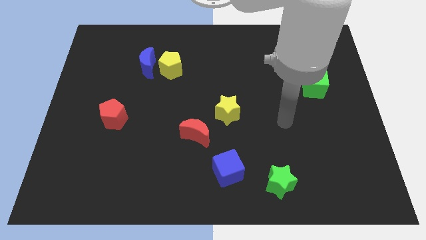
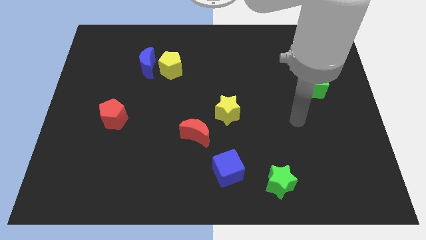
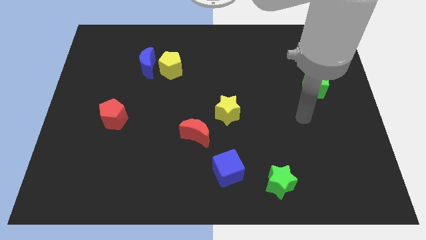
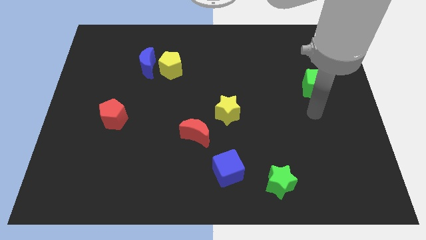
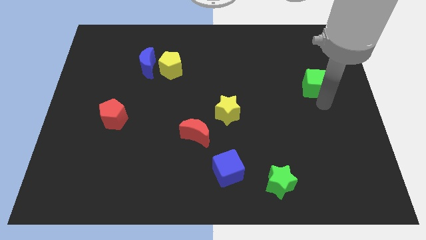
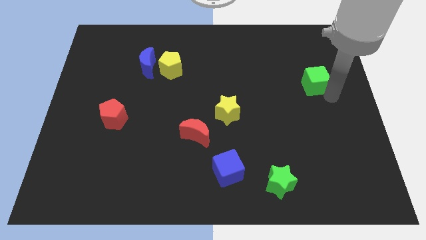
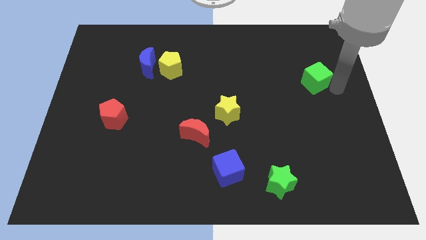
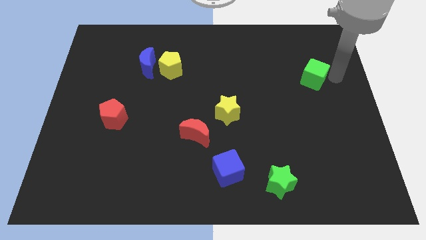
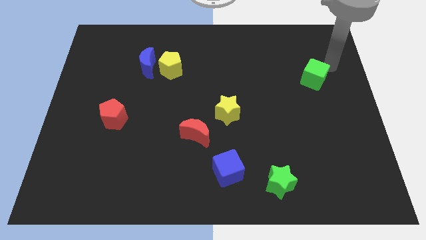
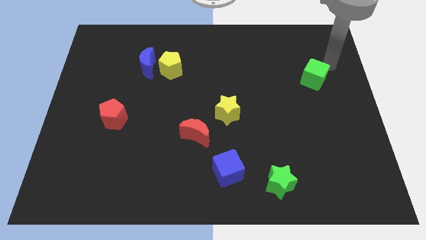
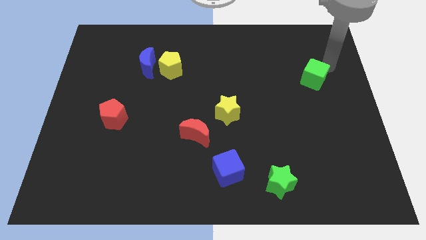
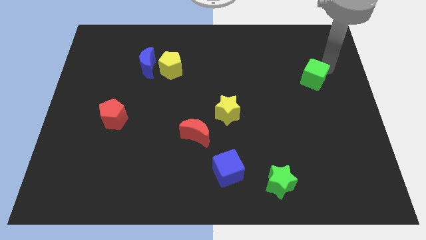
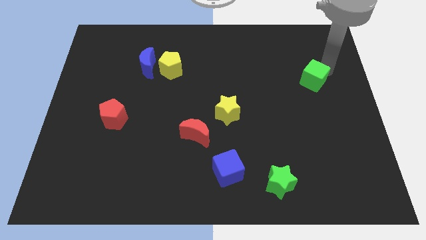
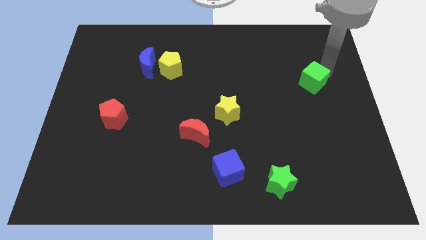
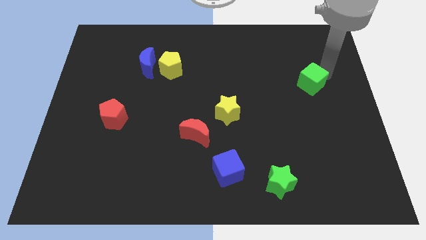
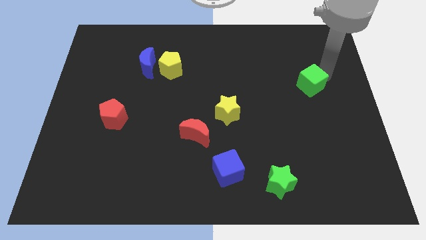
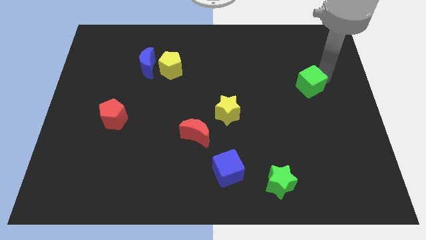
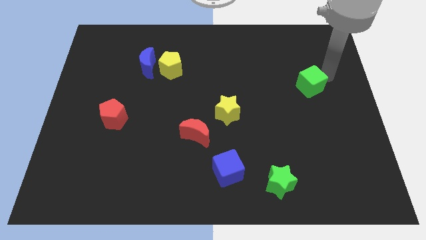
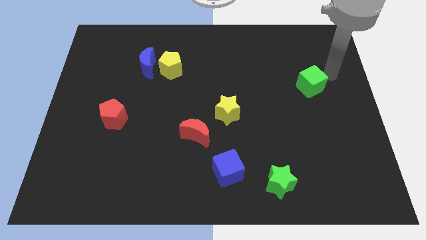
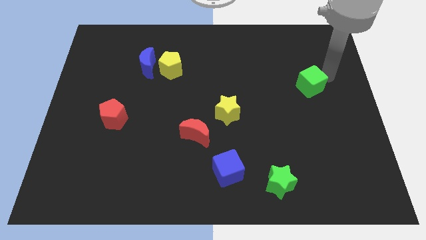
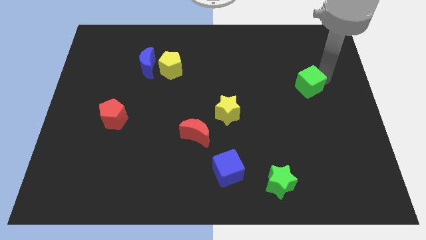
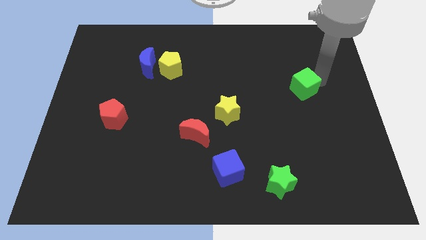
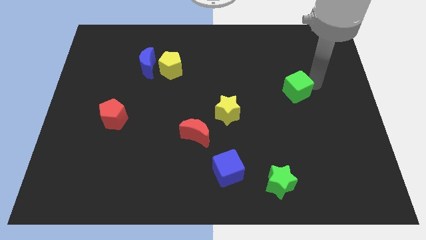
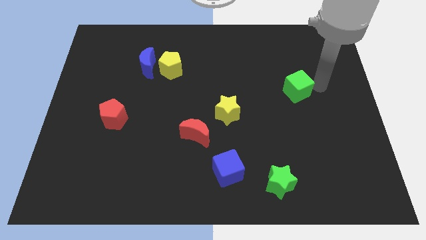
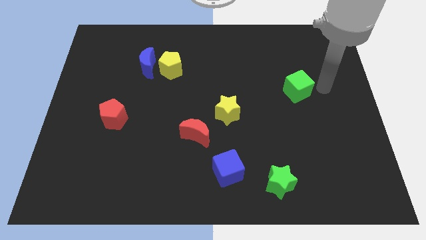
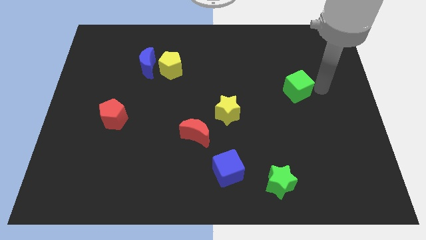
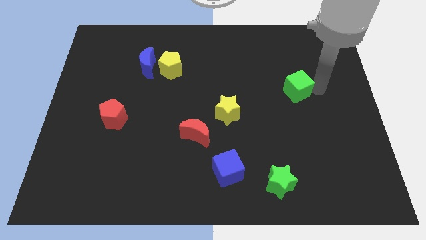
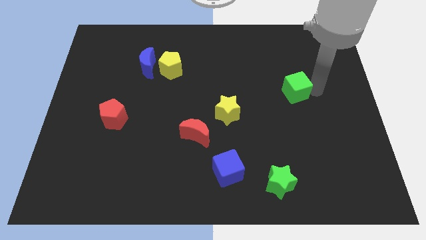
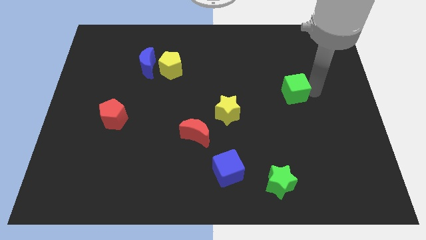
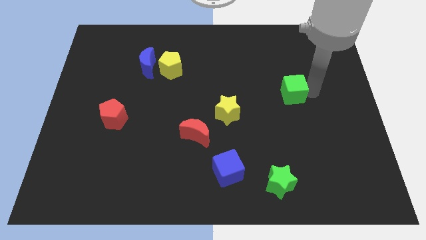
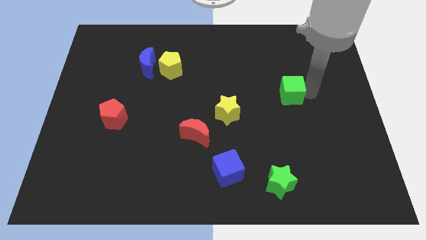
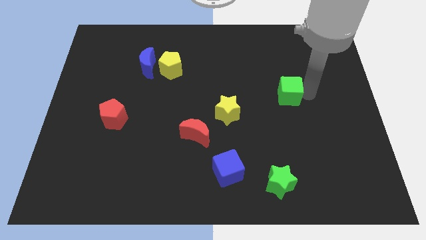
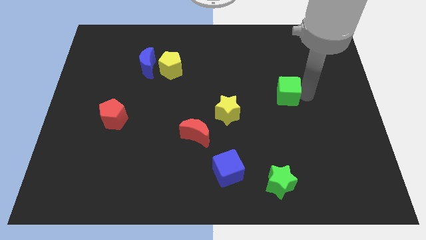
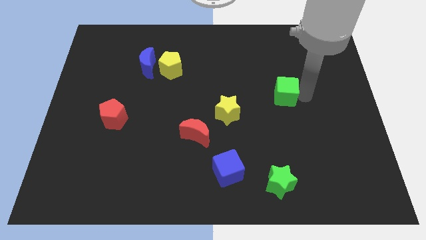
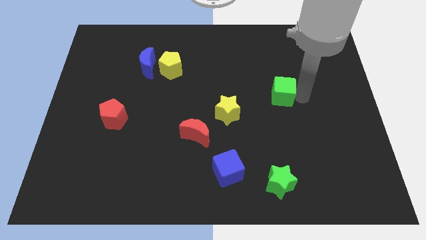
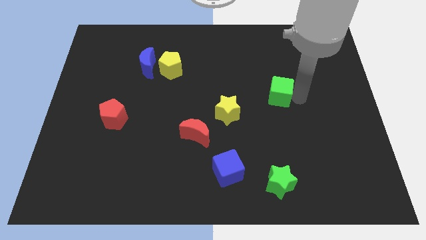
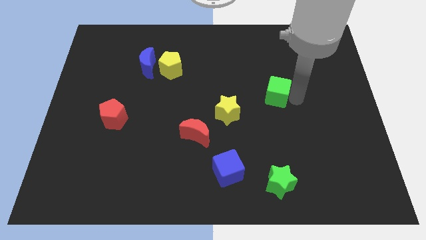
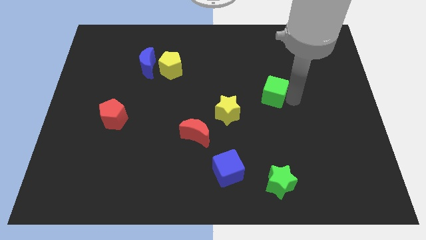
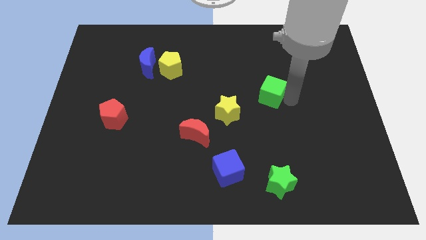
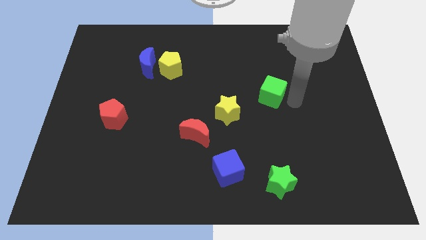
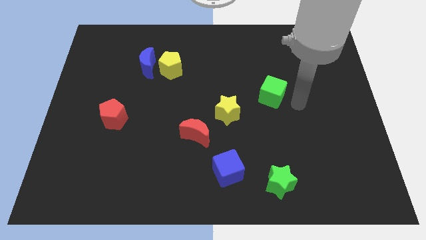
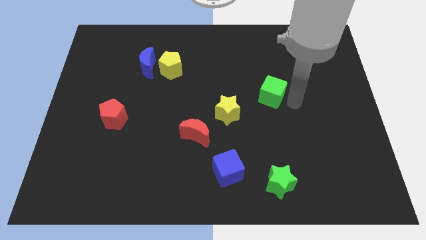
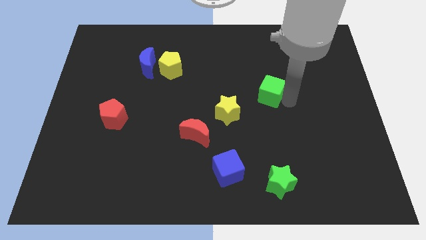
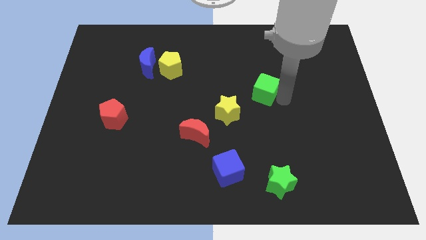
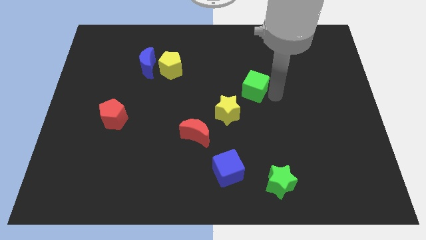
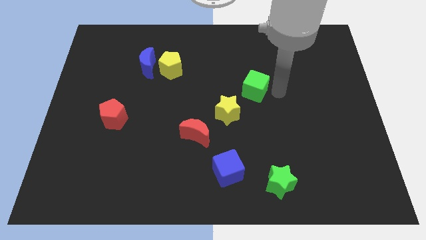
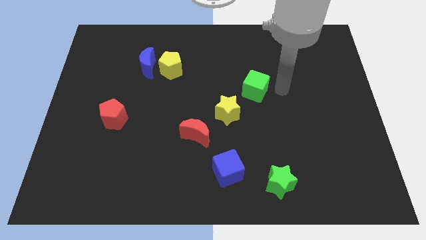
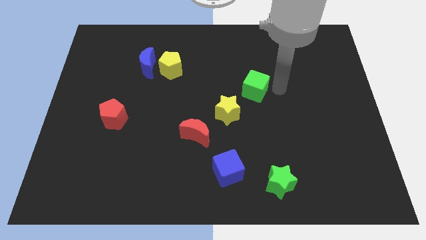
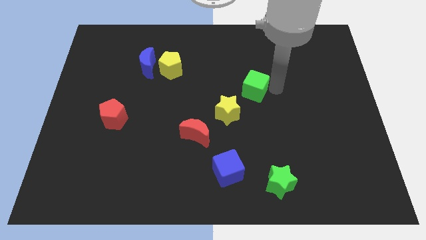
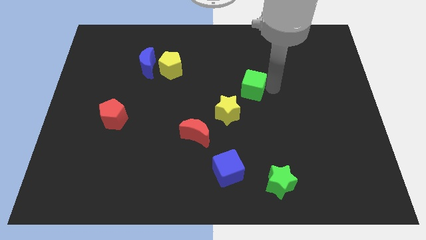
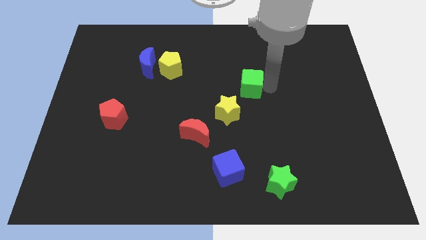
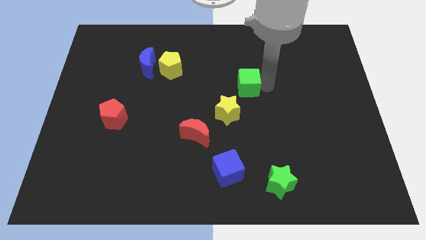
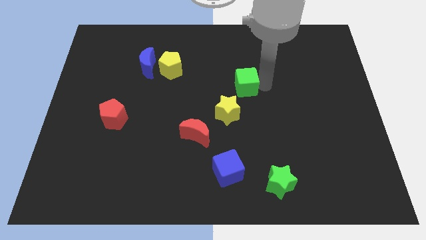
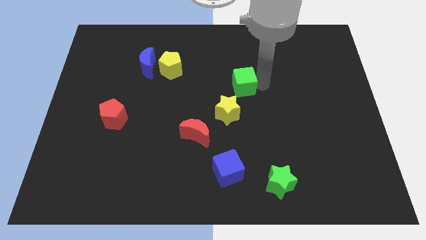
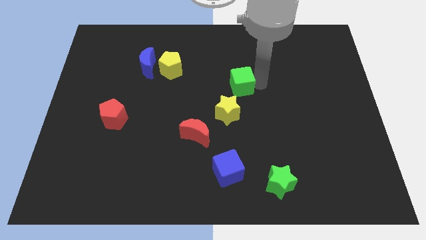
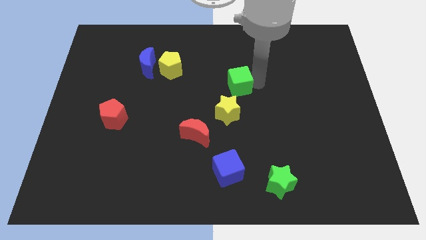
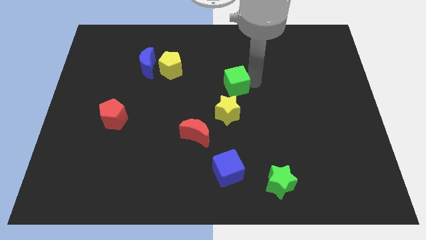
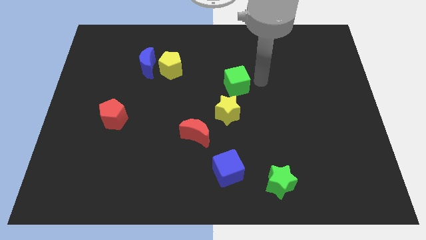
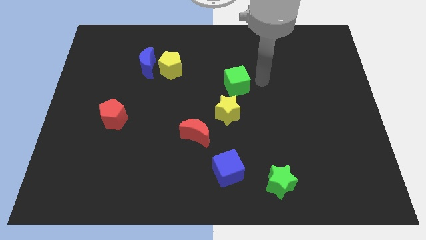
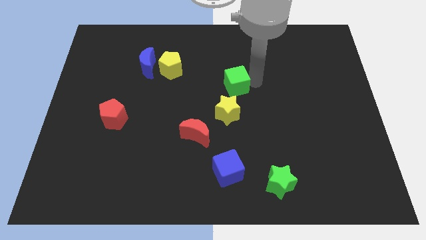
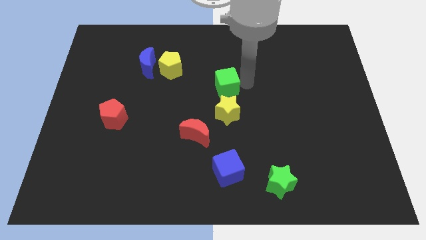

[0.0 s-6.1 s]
slide the green cube to the left

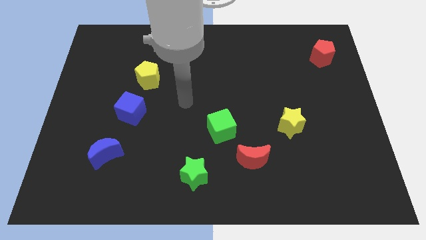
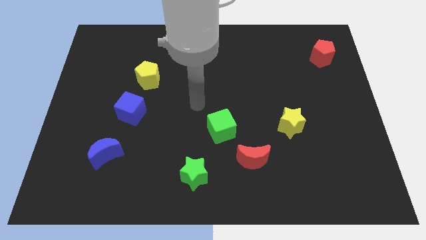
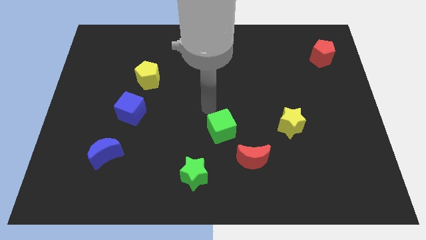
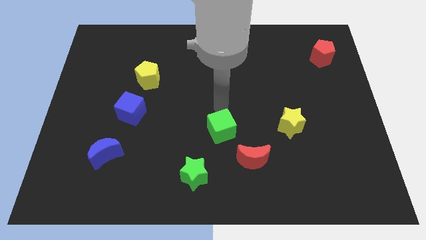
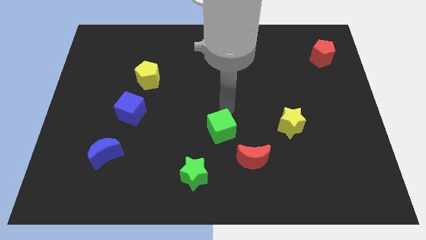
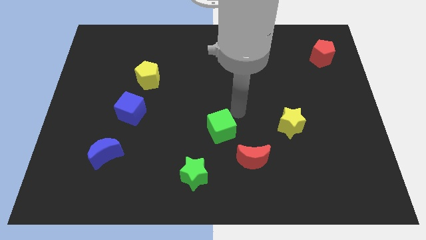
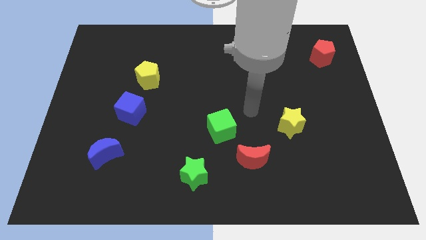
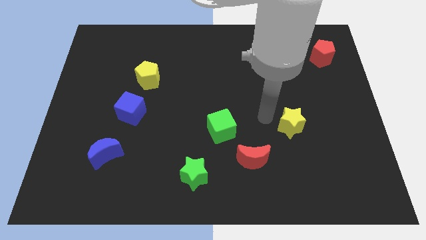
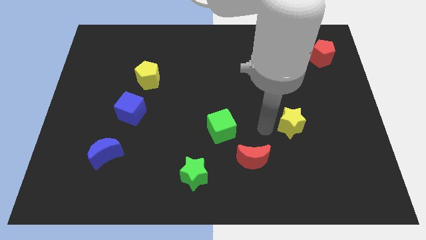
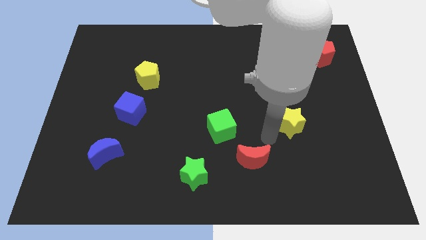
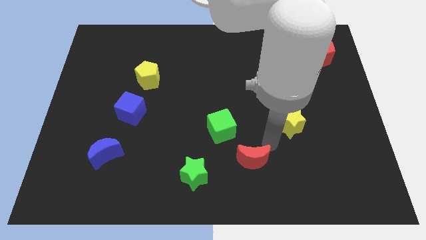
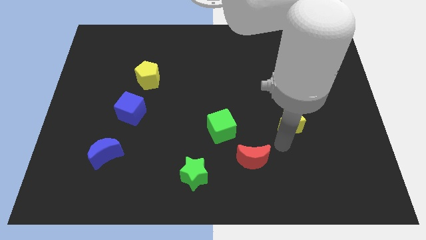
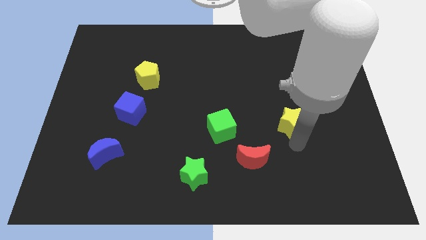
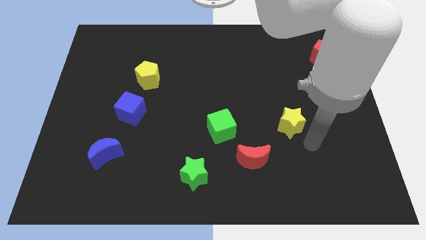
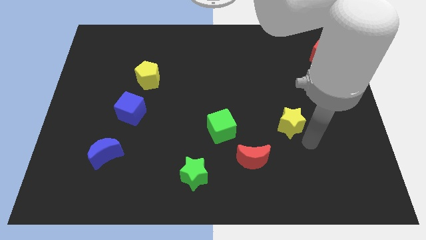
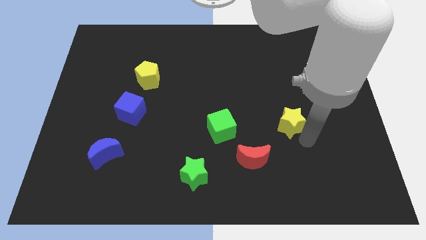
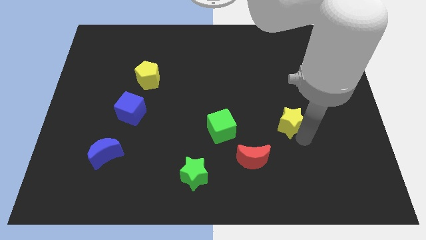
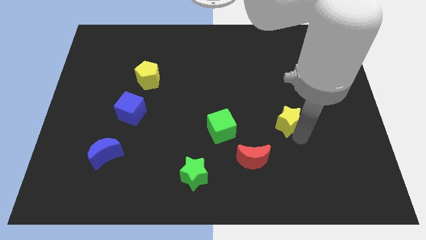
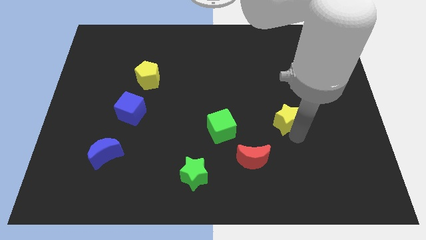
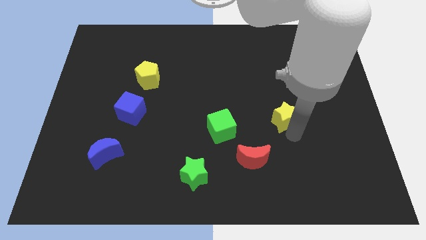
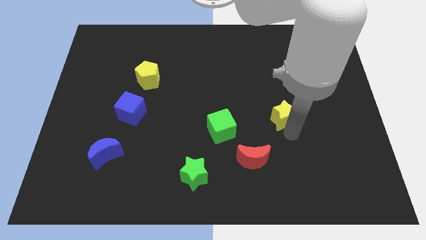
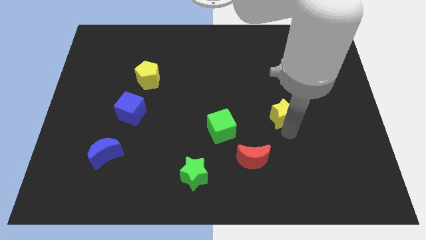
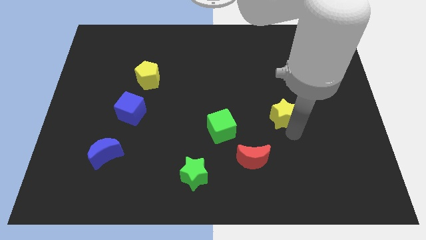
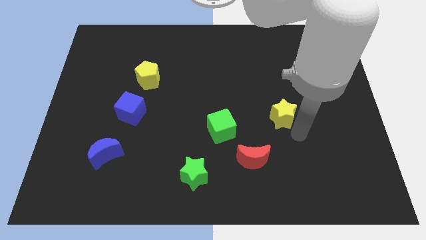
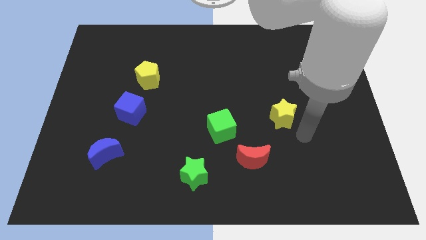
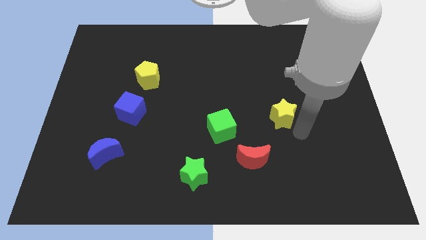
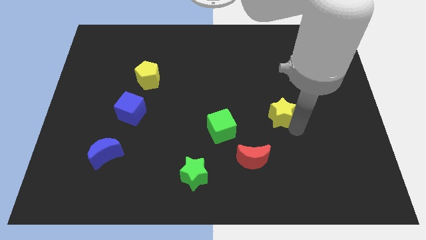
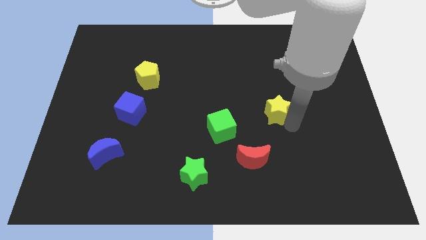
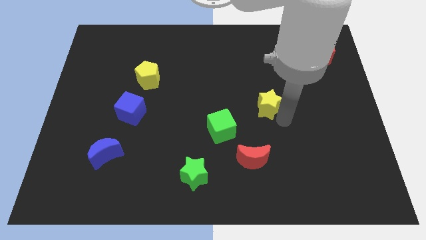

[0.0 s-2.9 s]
push the yellow star upwards and left slightly
